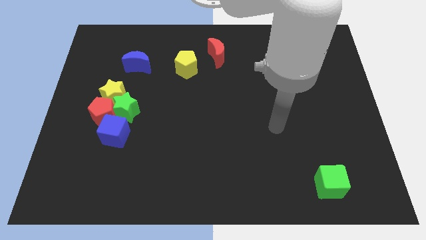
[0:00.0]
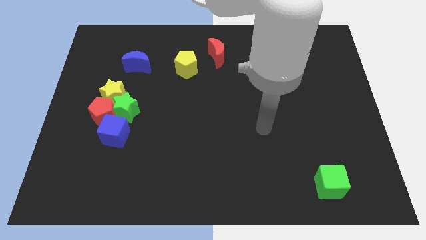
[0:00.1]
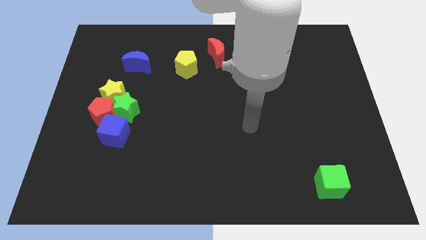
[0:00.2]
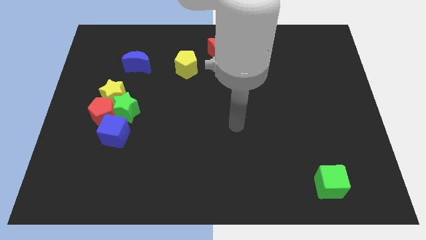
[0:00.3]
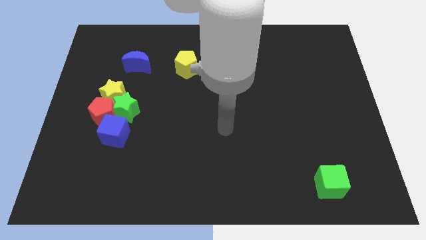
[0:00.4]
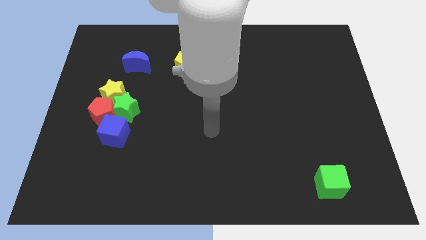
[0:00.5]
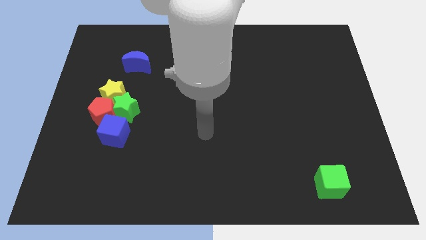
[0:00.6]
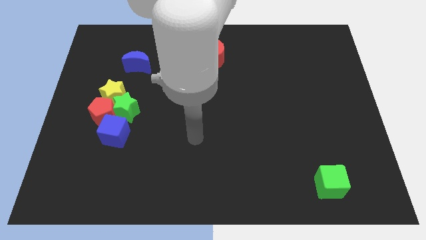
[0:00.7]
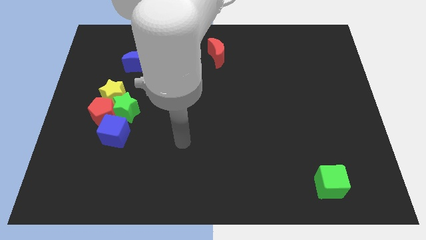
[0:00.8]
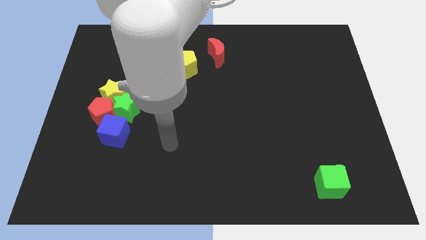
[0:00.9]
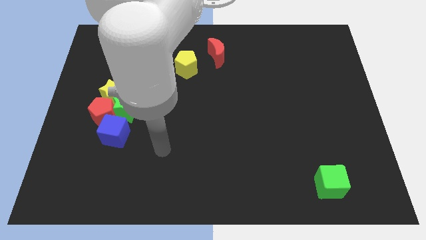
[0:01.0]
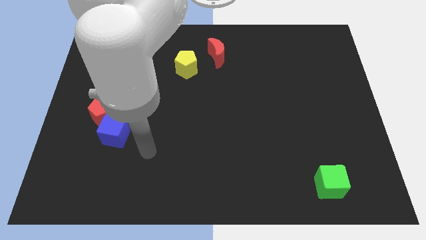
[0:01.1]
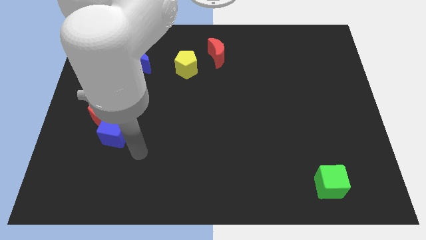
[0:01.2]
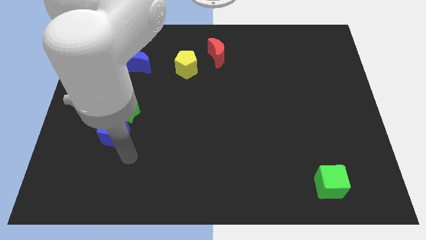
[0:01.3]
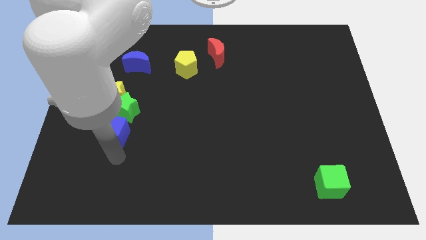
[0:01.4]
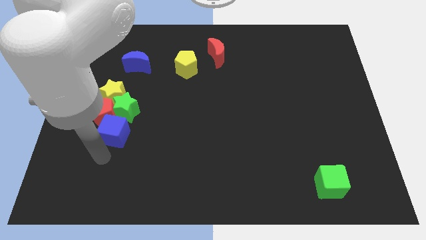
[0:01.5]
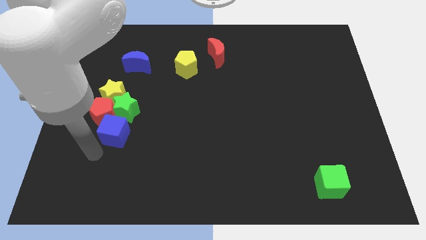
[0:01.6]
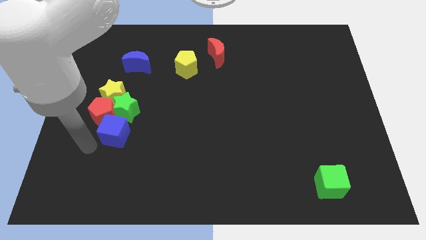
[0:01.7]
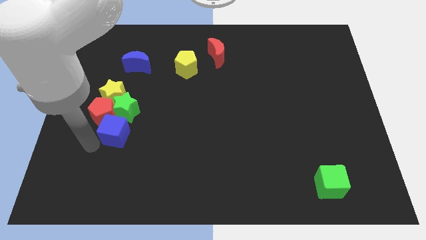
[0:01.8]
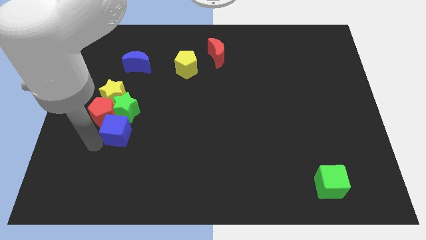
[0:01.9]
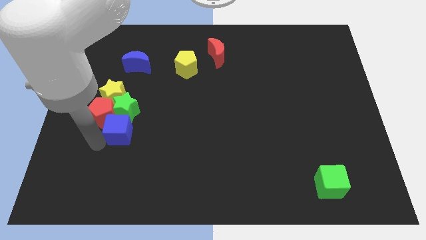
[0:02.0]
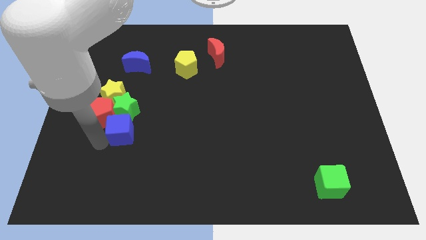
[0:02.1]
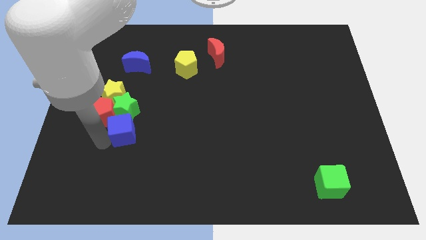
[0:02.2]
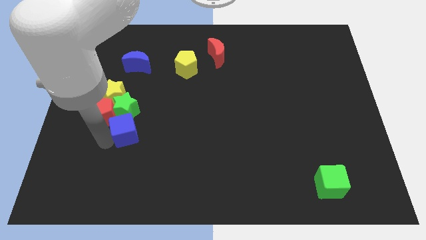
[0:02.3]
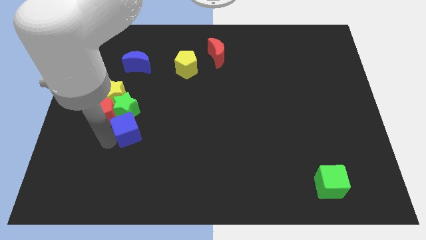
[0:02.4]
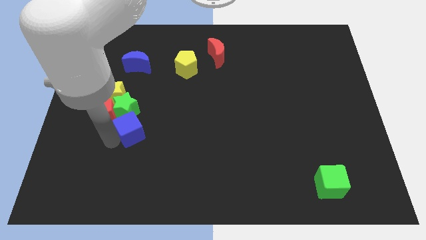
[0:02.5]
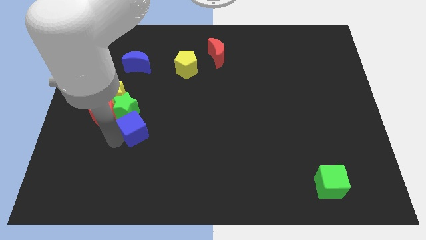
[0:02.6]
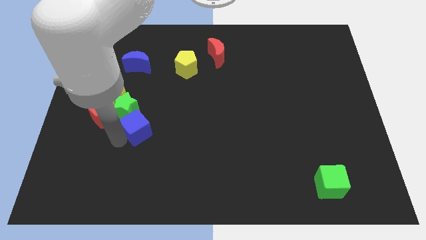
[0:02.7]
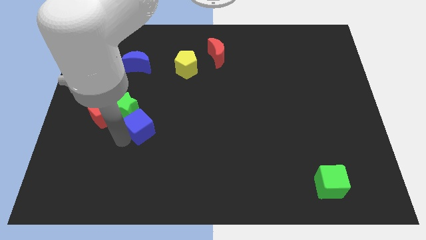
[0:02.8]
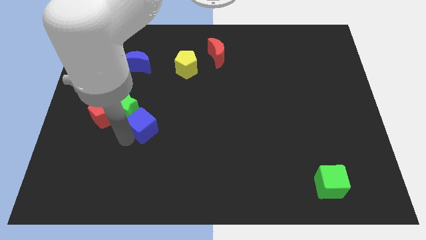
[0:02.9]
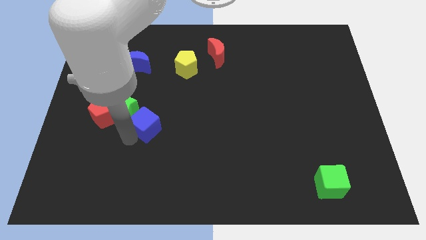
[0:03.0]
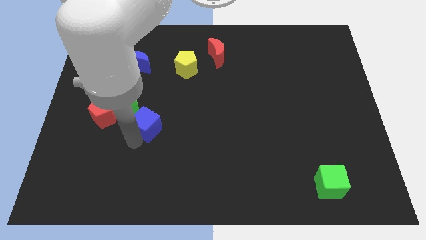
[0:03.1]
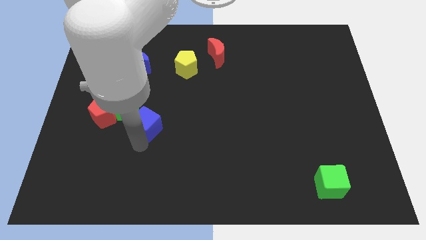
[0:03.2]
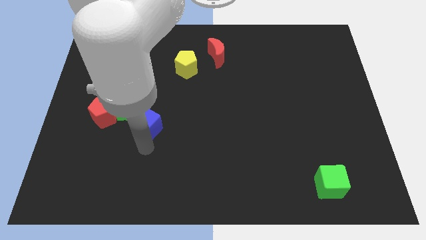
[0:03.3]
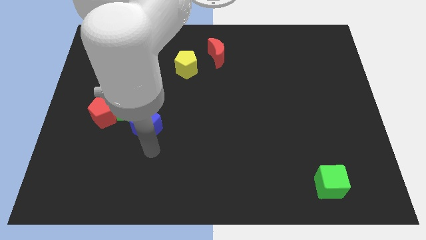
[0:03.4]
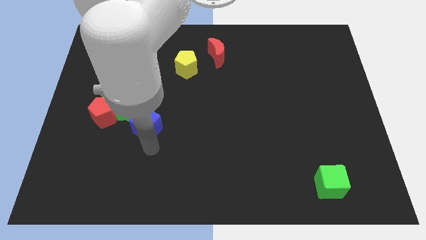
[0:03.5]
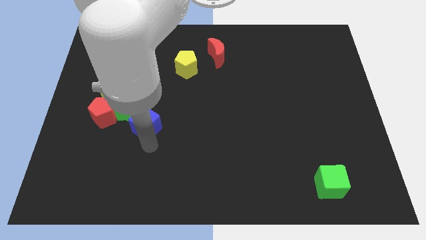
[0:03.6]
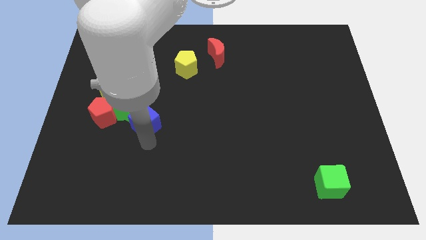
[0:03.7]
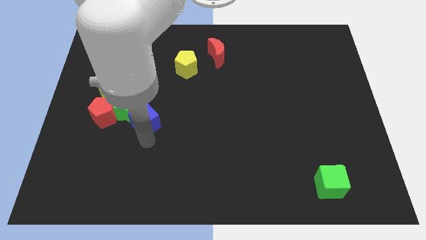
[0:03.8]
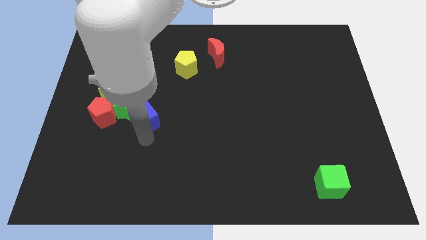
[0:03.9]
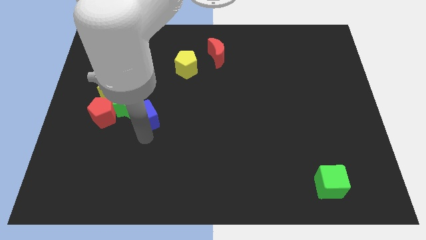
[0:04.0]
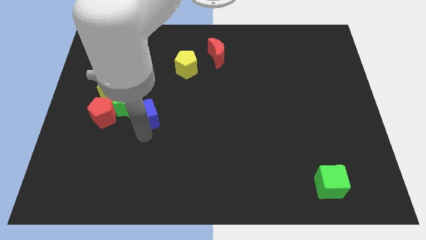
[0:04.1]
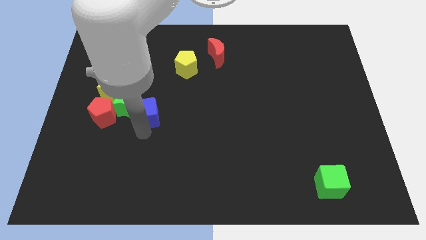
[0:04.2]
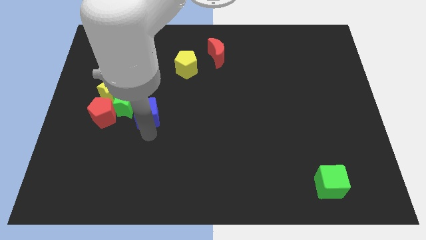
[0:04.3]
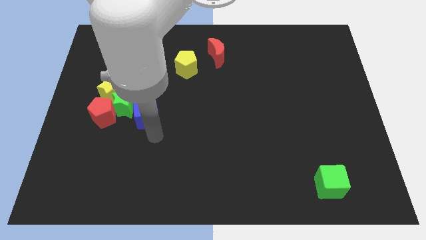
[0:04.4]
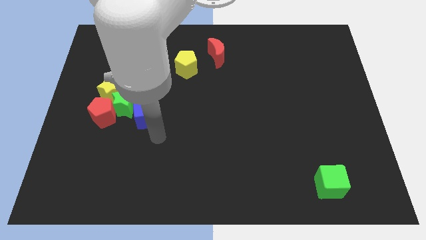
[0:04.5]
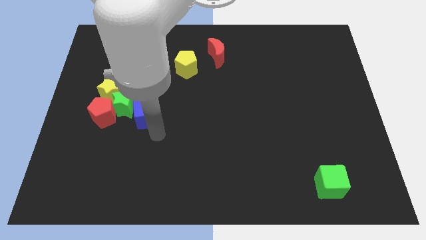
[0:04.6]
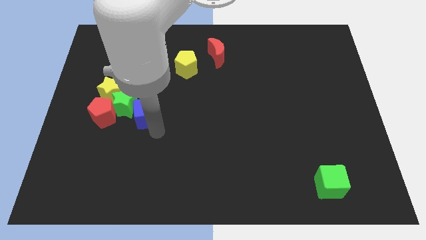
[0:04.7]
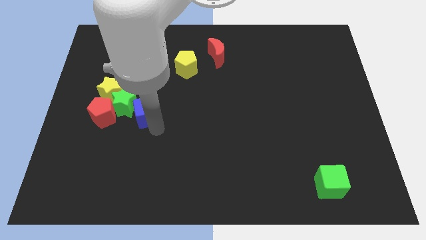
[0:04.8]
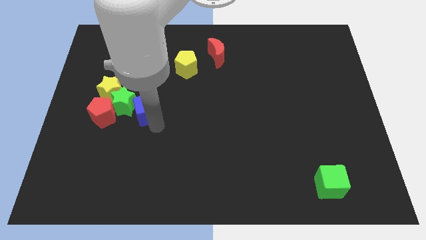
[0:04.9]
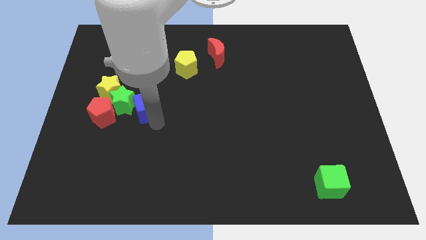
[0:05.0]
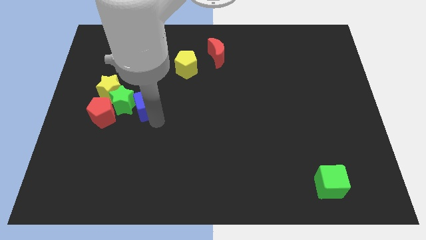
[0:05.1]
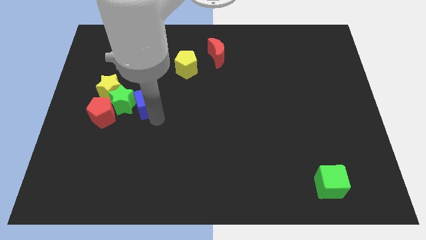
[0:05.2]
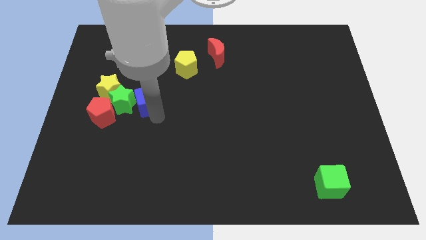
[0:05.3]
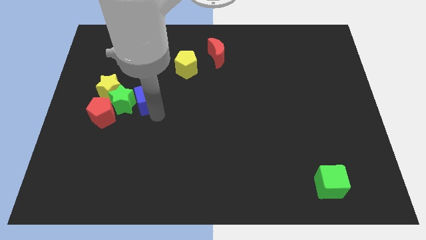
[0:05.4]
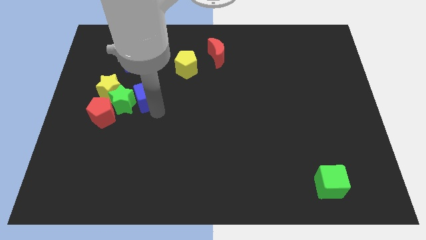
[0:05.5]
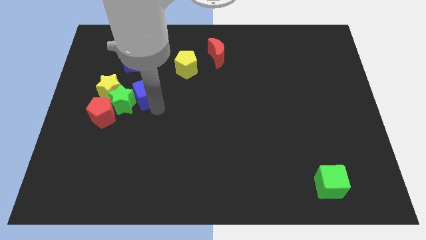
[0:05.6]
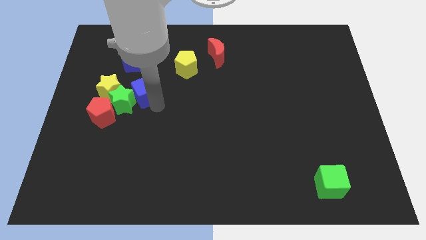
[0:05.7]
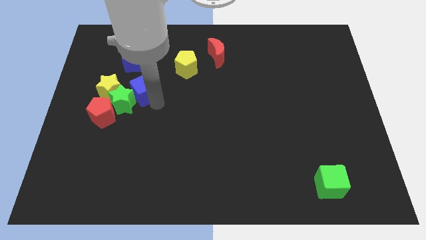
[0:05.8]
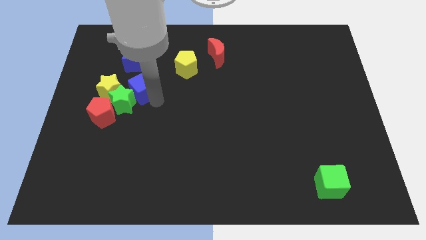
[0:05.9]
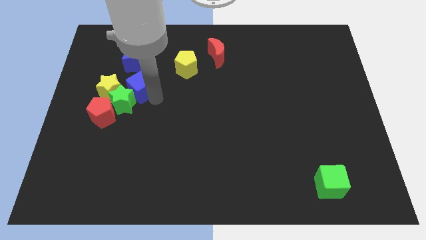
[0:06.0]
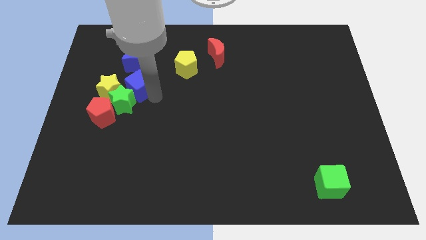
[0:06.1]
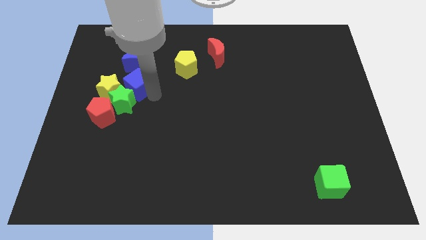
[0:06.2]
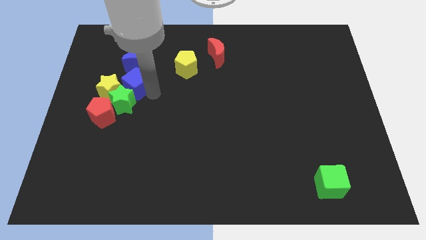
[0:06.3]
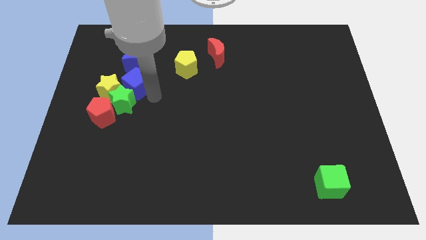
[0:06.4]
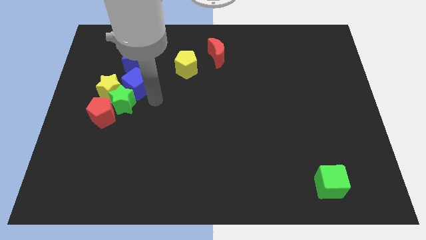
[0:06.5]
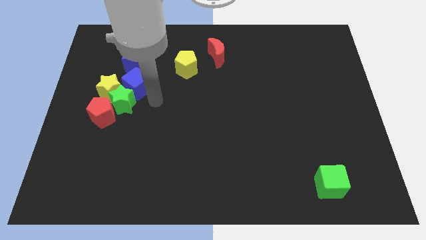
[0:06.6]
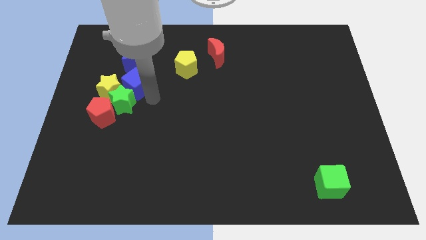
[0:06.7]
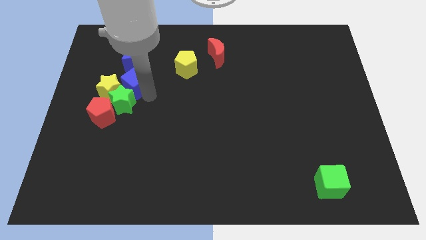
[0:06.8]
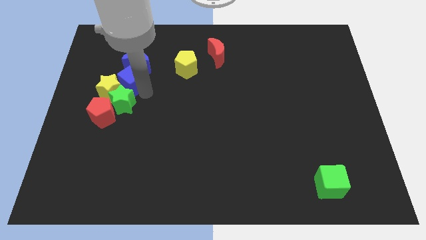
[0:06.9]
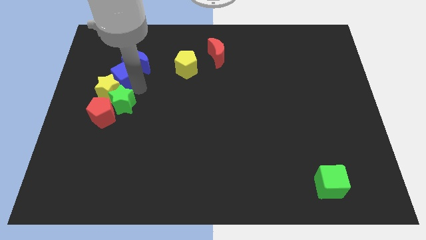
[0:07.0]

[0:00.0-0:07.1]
slide the blue cube to the top of the yellow star
